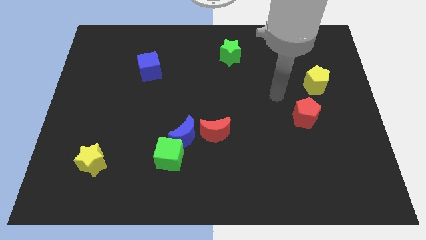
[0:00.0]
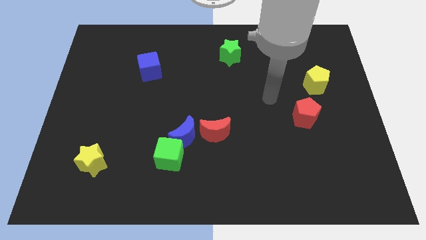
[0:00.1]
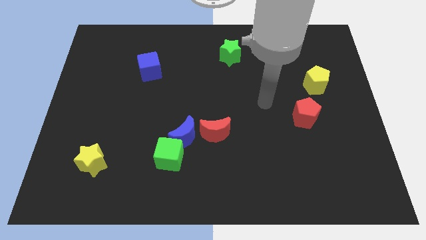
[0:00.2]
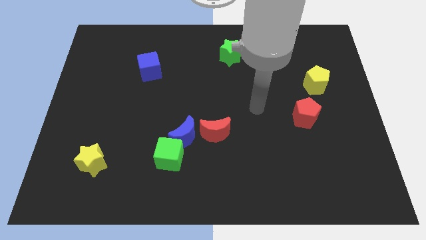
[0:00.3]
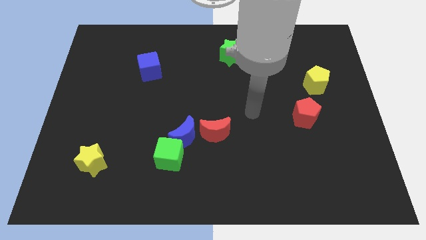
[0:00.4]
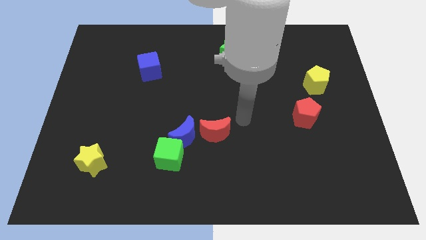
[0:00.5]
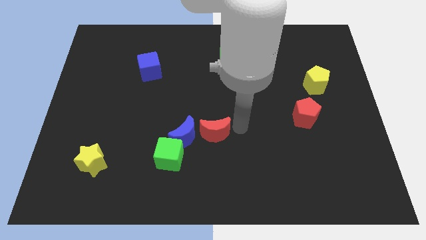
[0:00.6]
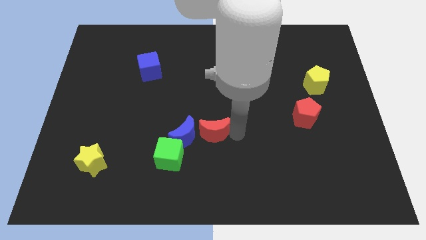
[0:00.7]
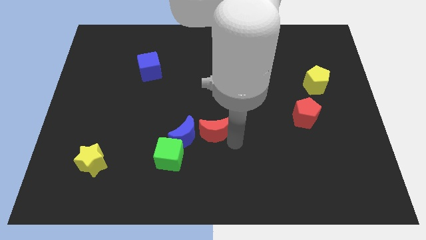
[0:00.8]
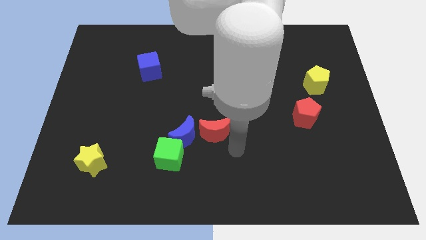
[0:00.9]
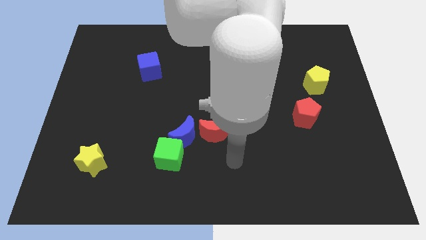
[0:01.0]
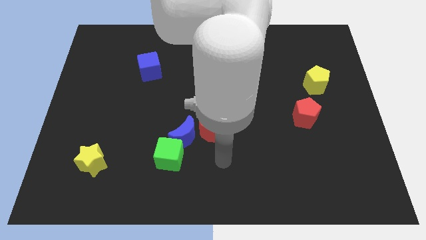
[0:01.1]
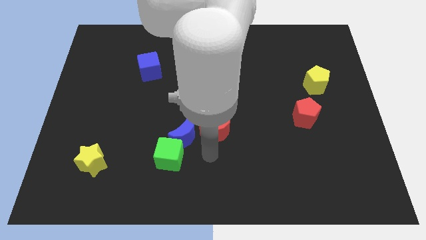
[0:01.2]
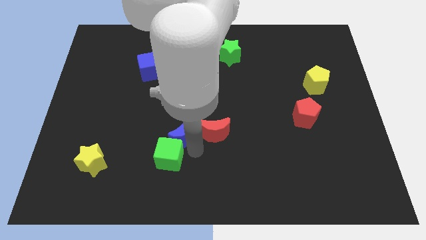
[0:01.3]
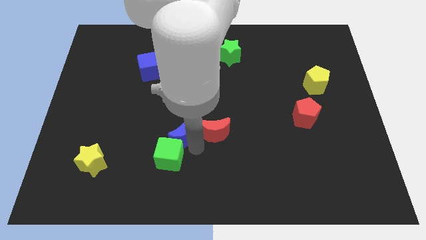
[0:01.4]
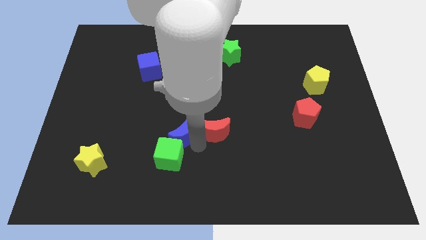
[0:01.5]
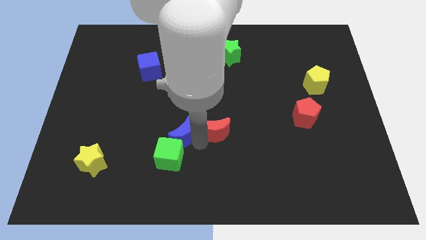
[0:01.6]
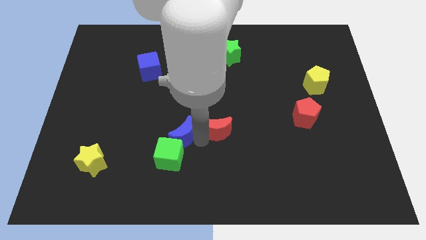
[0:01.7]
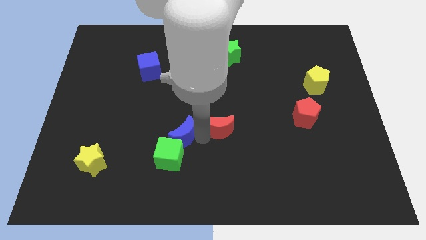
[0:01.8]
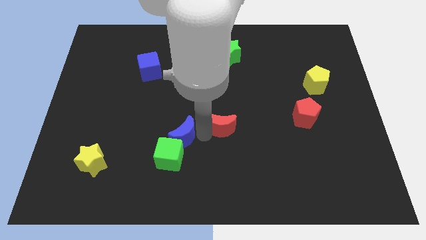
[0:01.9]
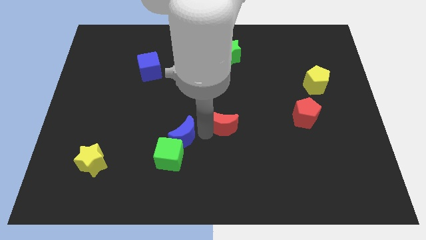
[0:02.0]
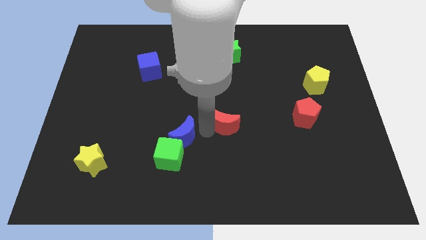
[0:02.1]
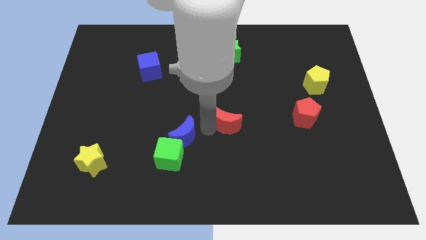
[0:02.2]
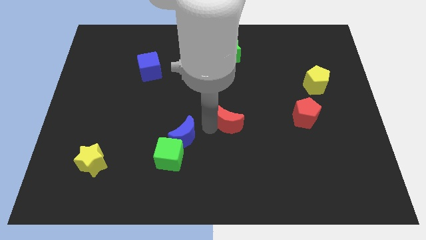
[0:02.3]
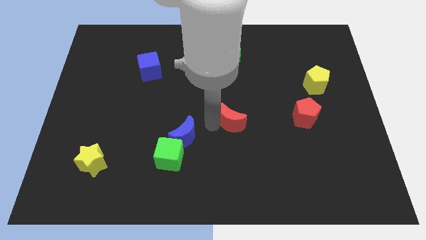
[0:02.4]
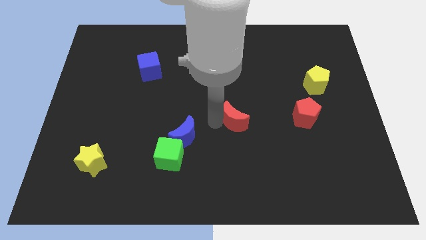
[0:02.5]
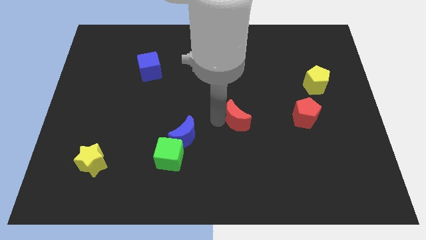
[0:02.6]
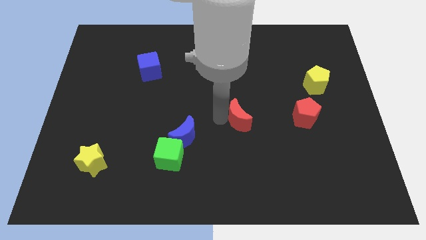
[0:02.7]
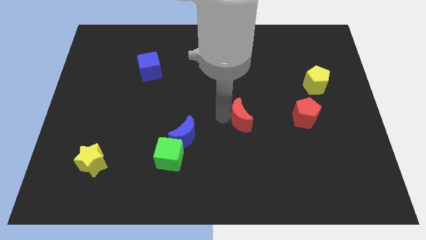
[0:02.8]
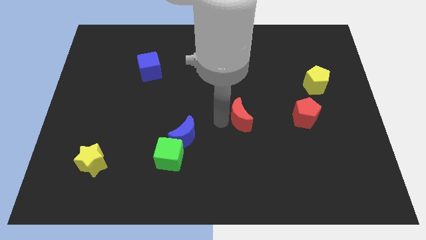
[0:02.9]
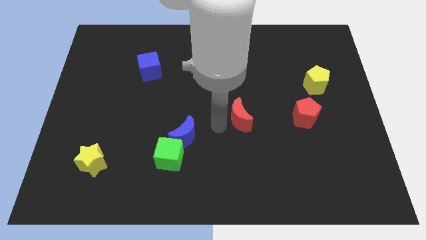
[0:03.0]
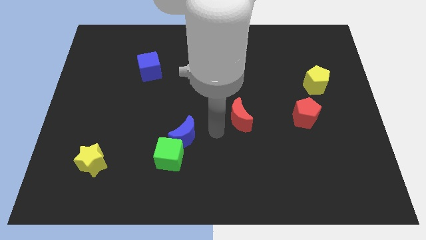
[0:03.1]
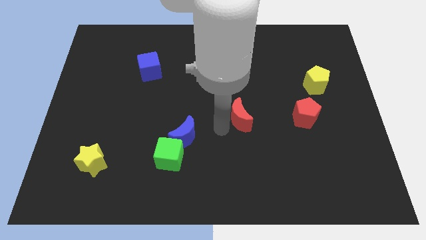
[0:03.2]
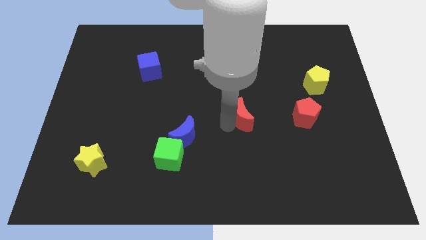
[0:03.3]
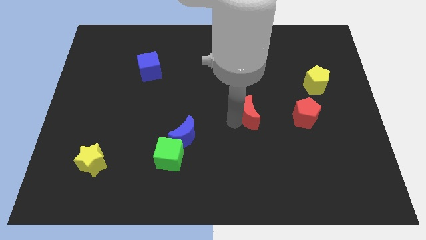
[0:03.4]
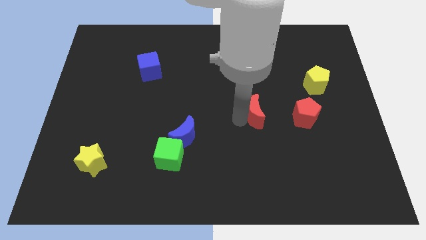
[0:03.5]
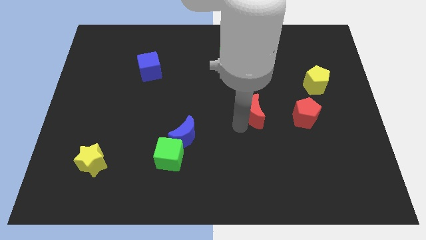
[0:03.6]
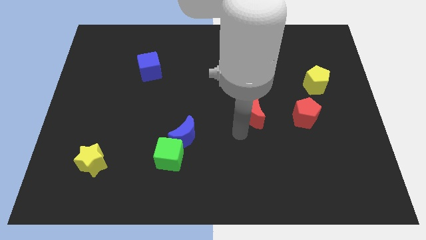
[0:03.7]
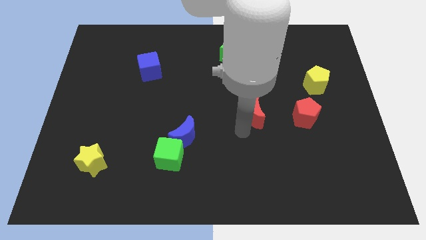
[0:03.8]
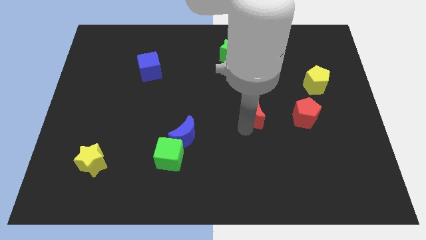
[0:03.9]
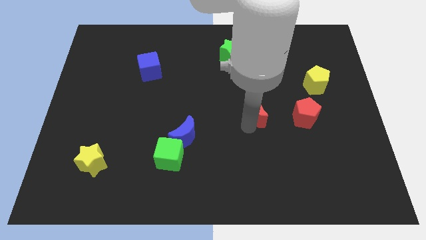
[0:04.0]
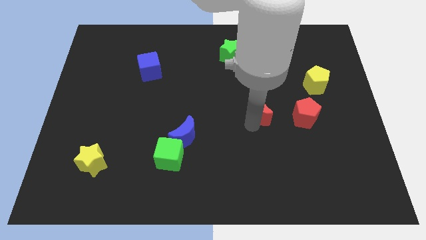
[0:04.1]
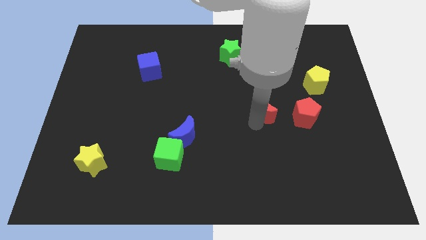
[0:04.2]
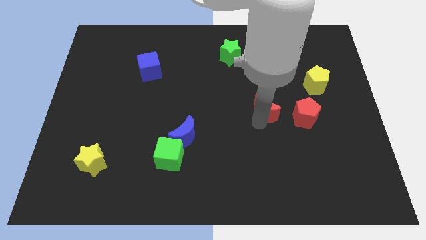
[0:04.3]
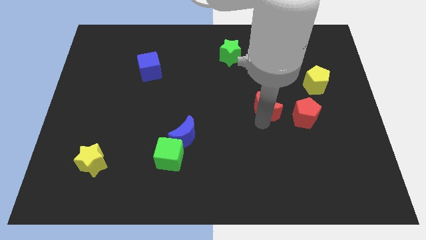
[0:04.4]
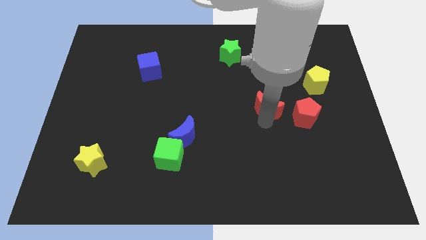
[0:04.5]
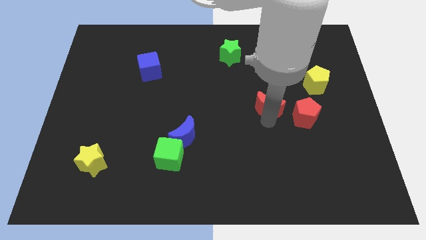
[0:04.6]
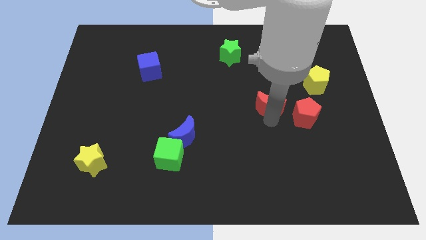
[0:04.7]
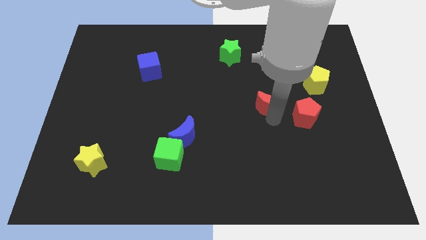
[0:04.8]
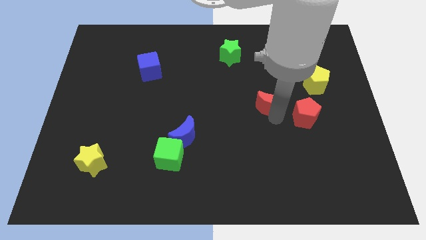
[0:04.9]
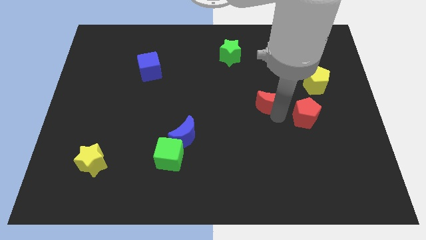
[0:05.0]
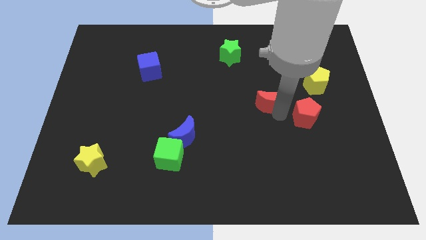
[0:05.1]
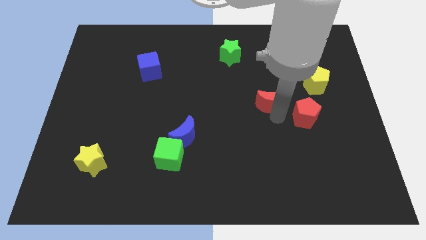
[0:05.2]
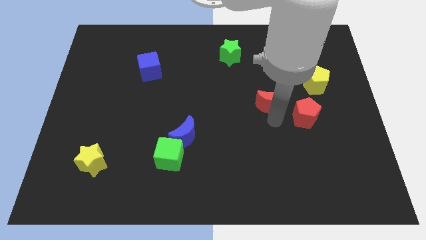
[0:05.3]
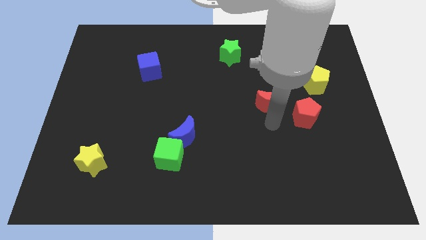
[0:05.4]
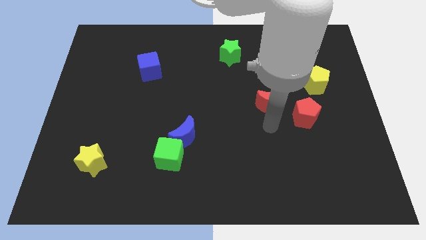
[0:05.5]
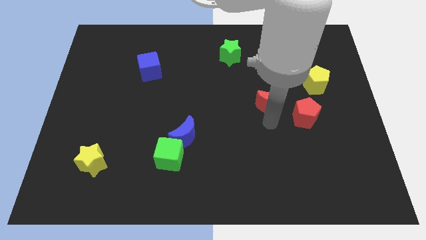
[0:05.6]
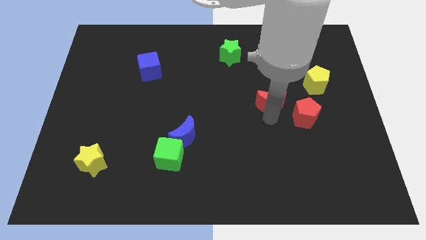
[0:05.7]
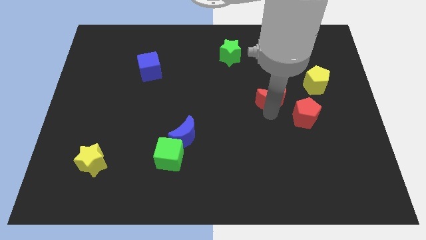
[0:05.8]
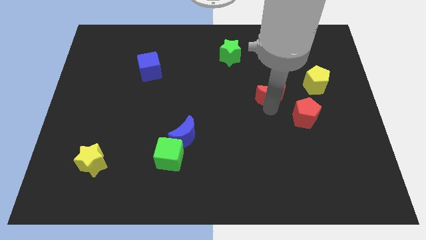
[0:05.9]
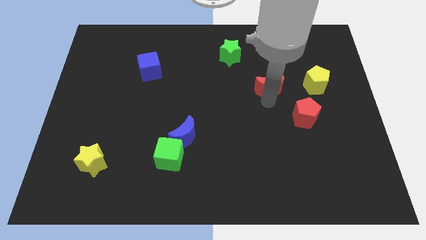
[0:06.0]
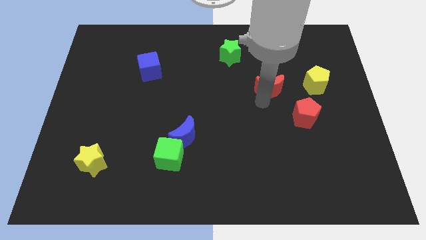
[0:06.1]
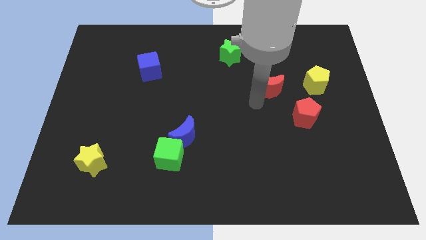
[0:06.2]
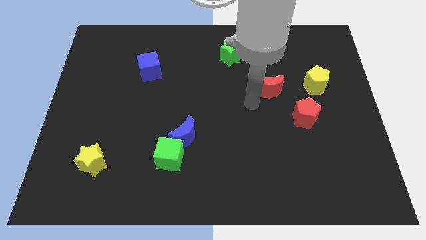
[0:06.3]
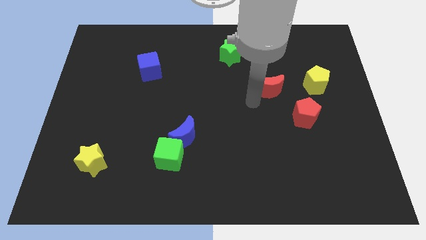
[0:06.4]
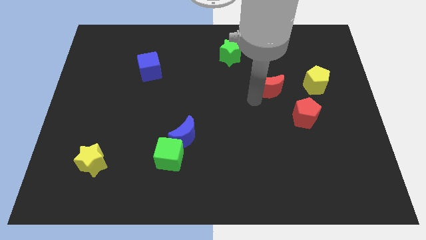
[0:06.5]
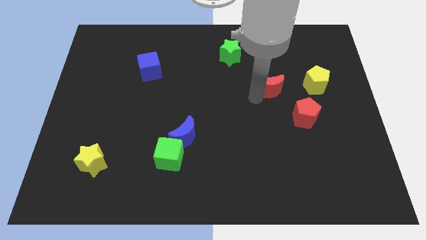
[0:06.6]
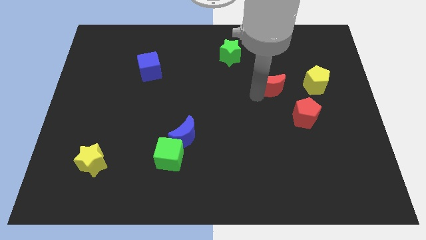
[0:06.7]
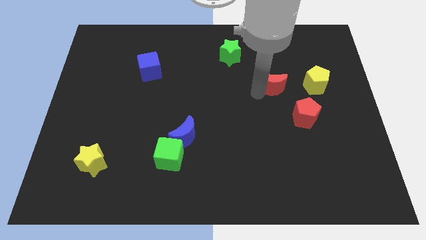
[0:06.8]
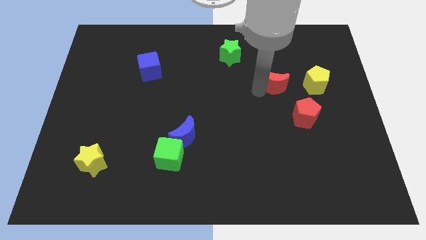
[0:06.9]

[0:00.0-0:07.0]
push the red moon up and right

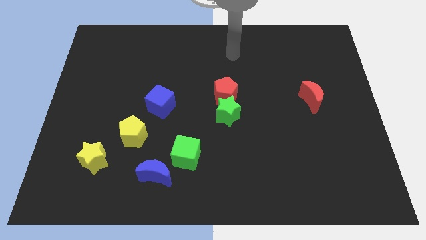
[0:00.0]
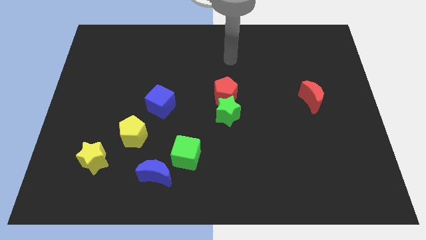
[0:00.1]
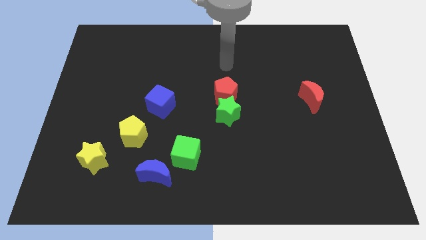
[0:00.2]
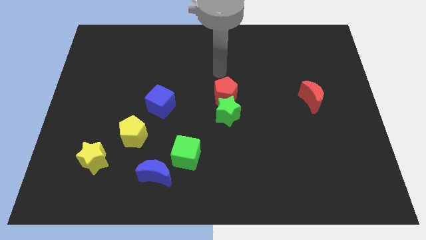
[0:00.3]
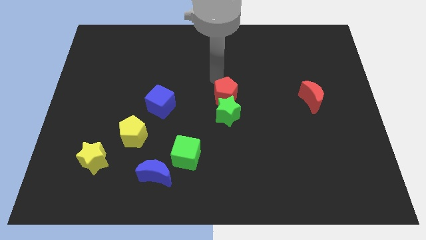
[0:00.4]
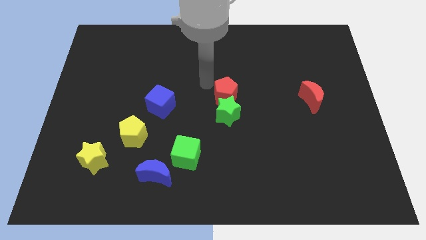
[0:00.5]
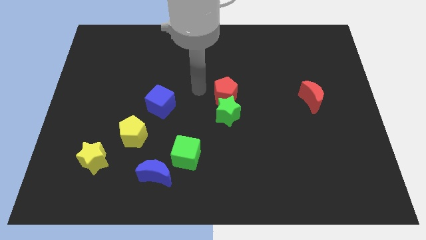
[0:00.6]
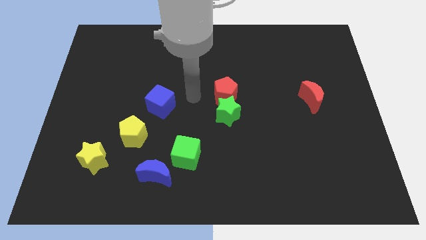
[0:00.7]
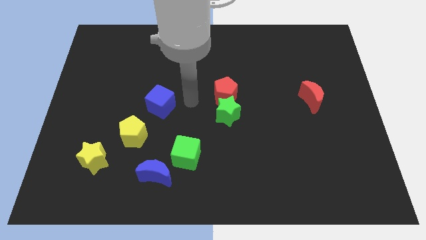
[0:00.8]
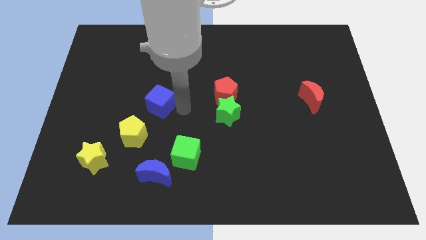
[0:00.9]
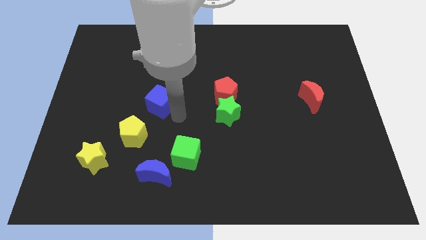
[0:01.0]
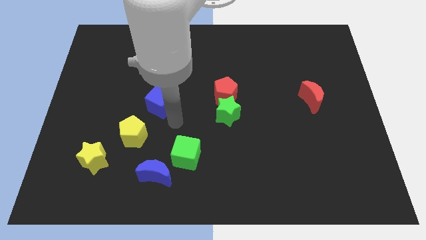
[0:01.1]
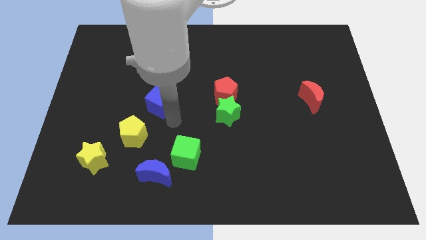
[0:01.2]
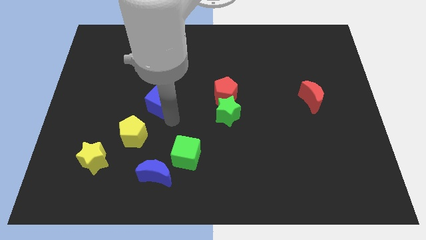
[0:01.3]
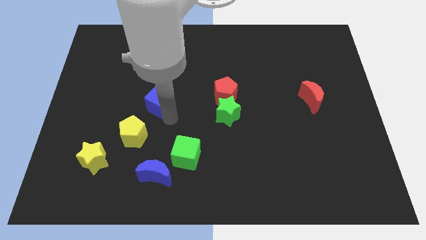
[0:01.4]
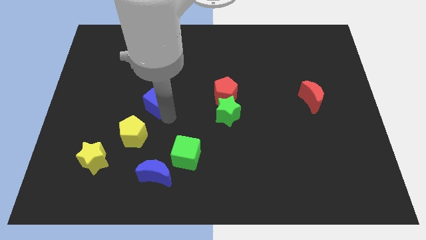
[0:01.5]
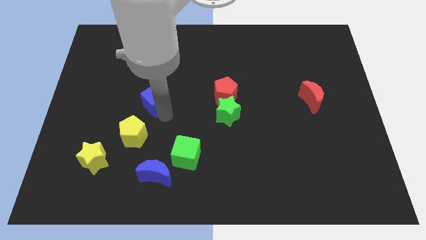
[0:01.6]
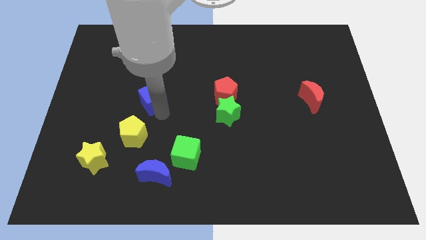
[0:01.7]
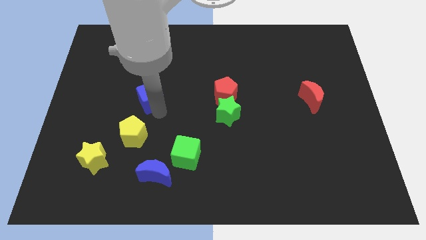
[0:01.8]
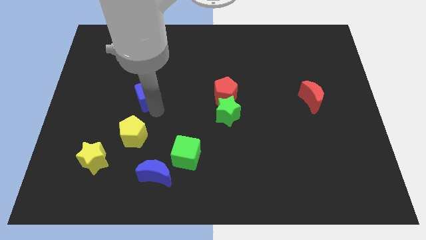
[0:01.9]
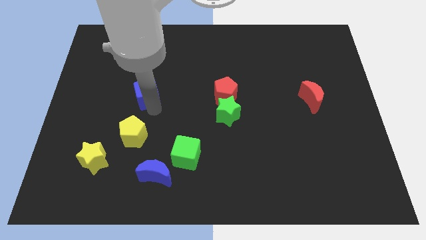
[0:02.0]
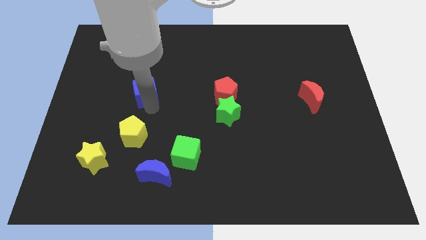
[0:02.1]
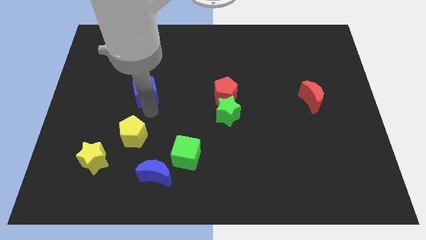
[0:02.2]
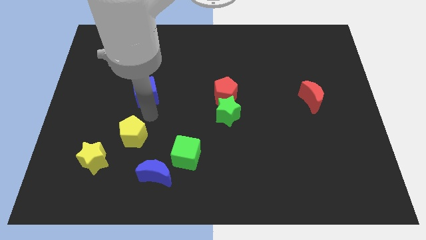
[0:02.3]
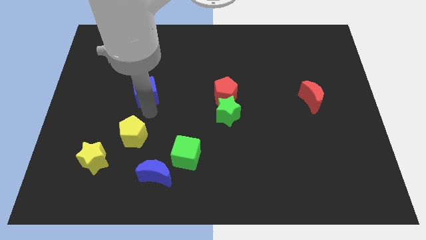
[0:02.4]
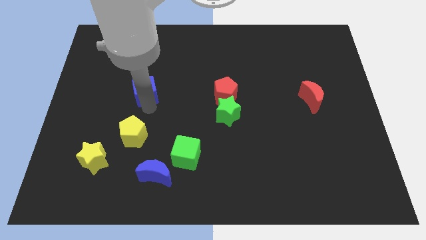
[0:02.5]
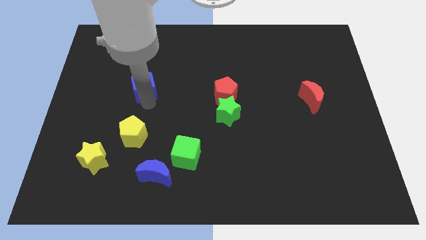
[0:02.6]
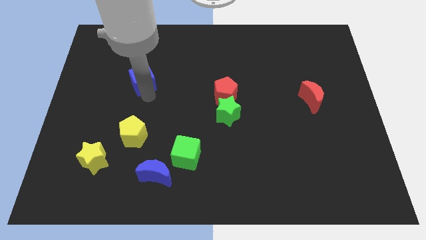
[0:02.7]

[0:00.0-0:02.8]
slightly push the blue cube up and left
